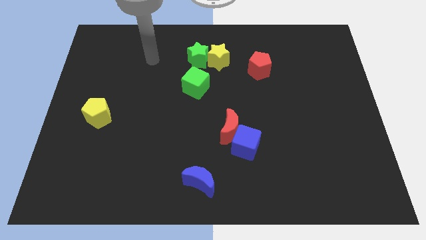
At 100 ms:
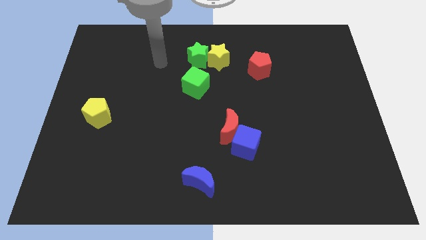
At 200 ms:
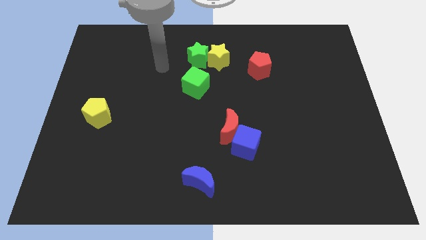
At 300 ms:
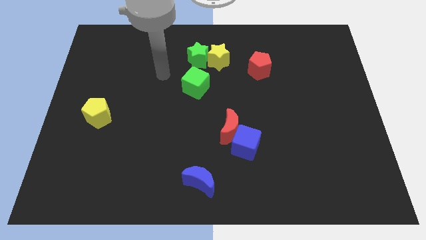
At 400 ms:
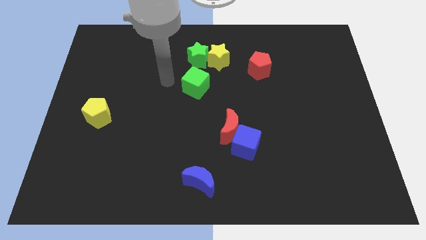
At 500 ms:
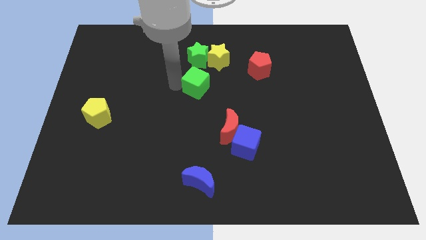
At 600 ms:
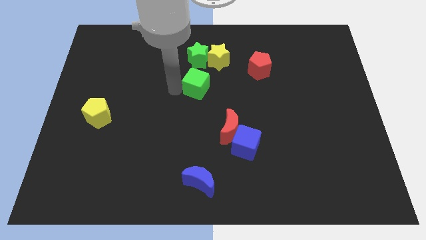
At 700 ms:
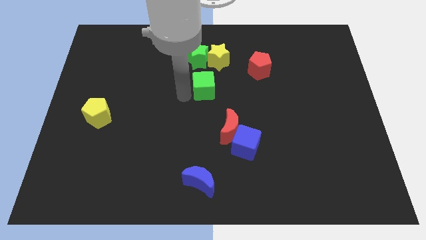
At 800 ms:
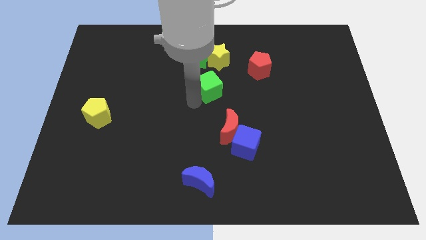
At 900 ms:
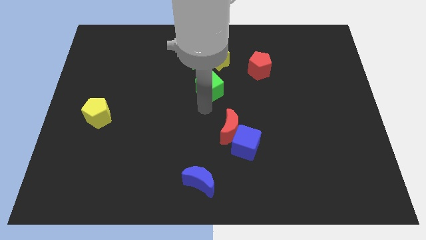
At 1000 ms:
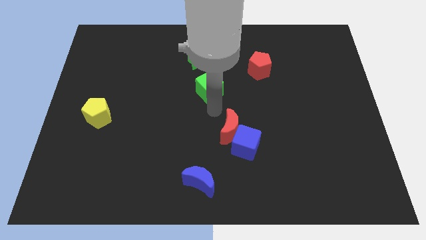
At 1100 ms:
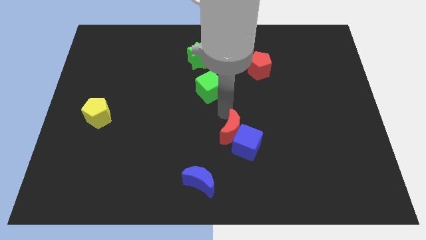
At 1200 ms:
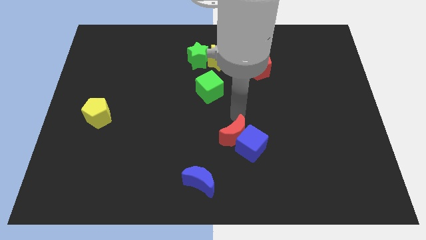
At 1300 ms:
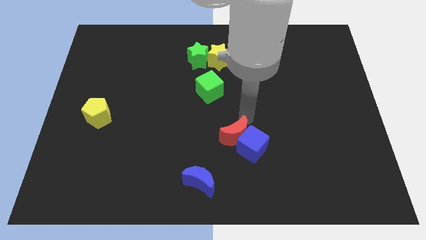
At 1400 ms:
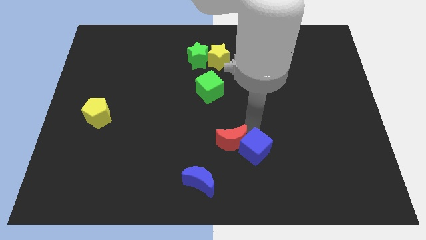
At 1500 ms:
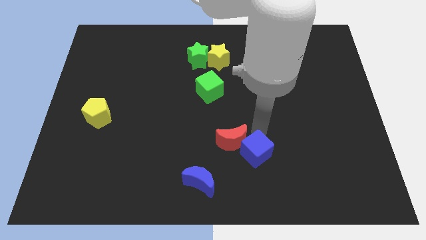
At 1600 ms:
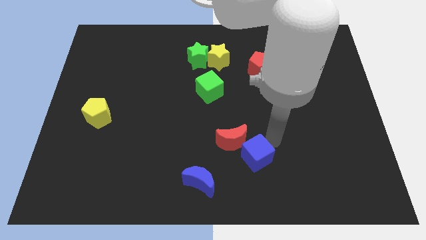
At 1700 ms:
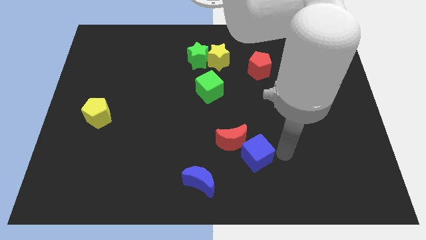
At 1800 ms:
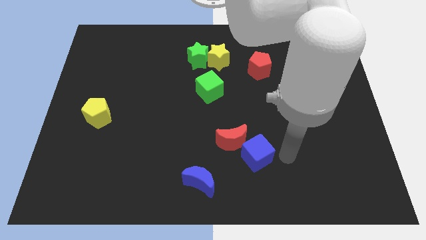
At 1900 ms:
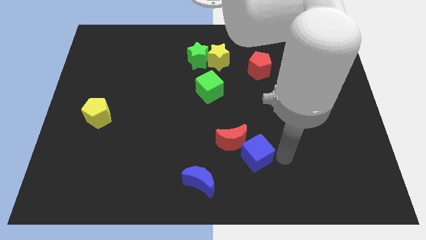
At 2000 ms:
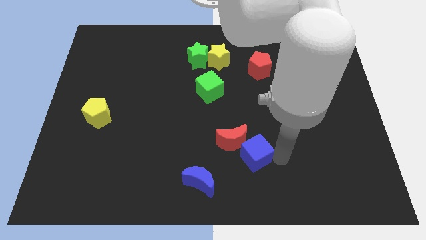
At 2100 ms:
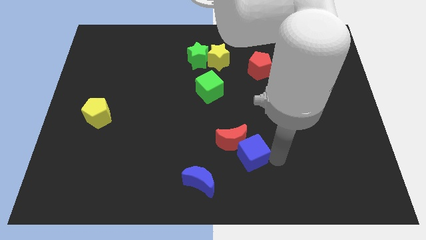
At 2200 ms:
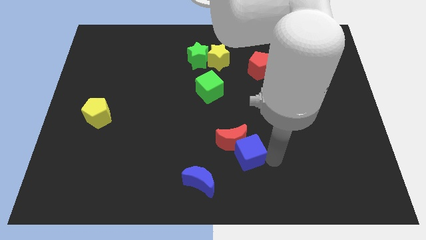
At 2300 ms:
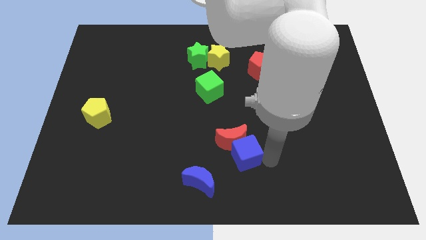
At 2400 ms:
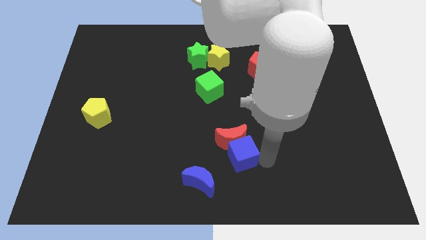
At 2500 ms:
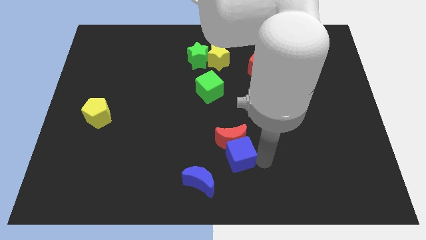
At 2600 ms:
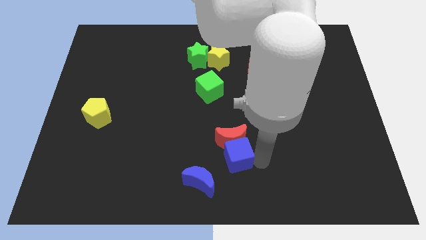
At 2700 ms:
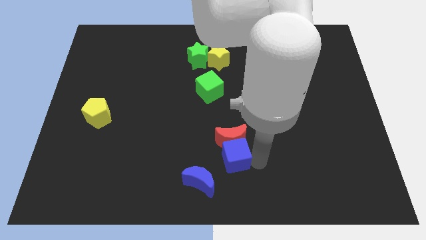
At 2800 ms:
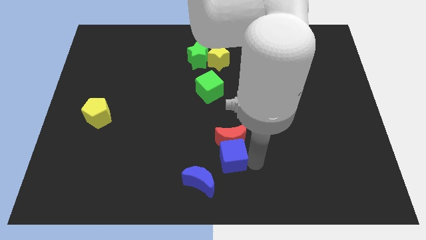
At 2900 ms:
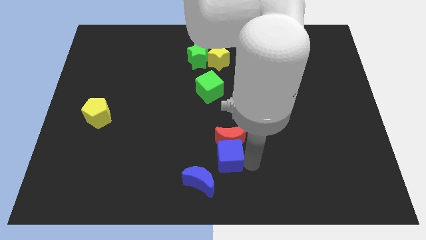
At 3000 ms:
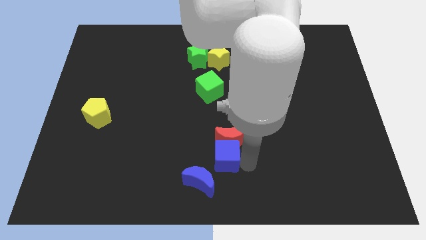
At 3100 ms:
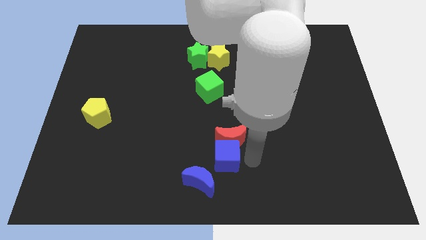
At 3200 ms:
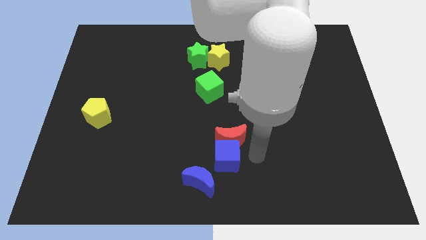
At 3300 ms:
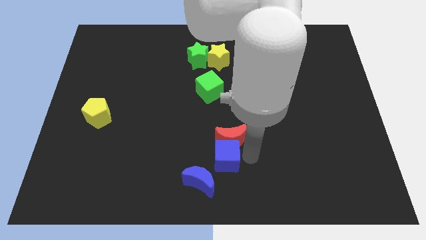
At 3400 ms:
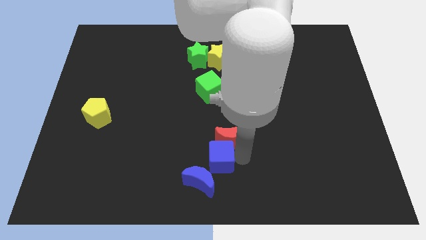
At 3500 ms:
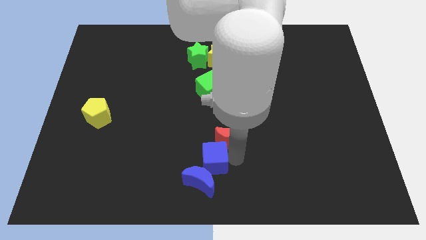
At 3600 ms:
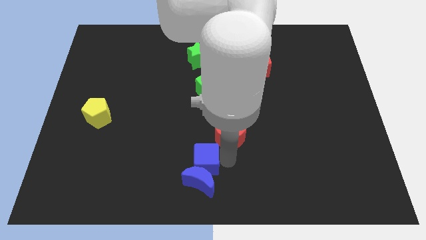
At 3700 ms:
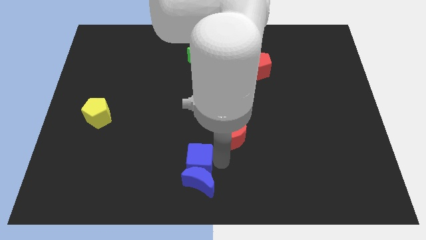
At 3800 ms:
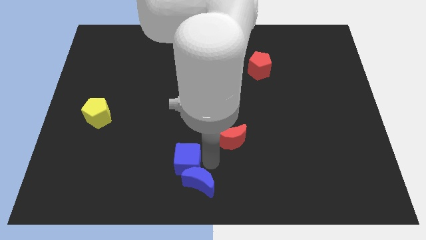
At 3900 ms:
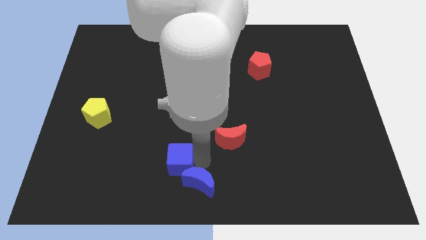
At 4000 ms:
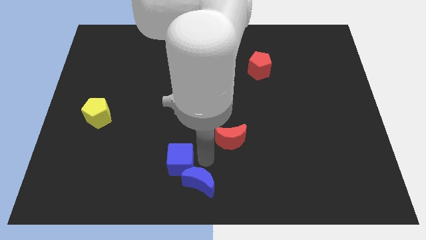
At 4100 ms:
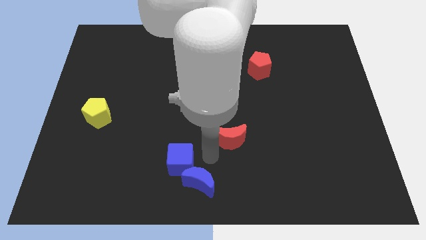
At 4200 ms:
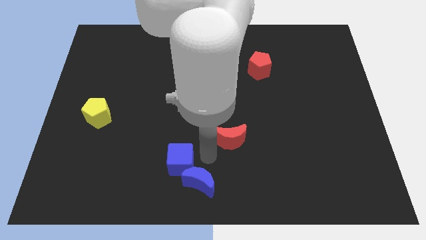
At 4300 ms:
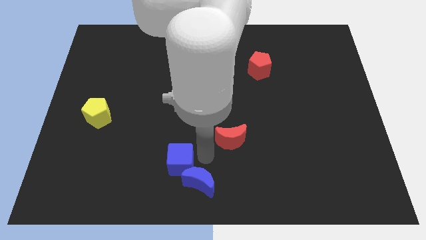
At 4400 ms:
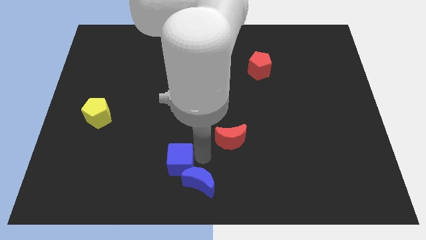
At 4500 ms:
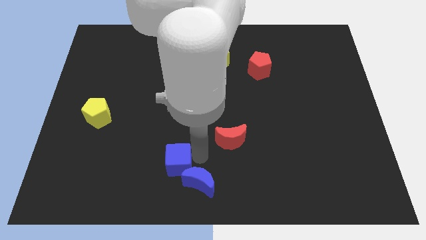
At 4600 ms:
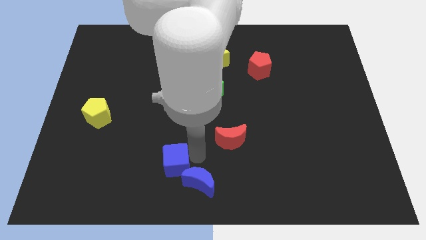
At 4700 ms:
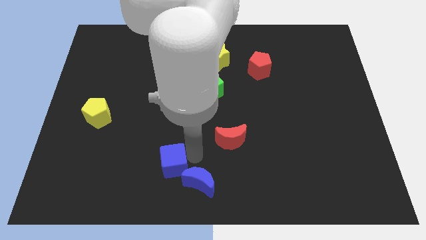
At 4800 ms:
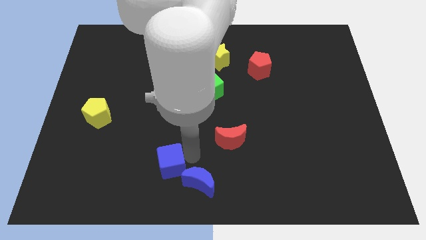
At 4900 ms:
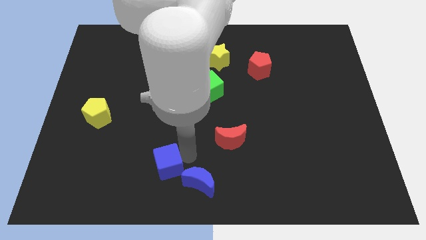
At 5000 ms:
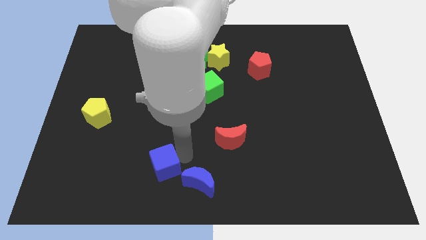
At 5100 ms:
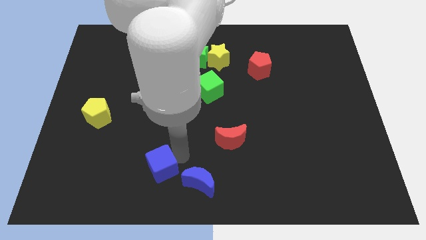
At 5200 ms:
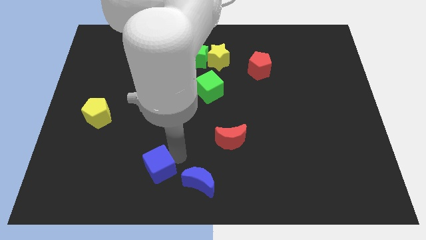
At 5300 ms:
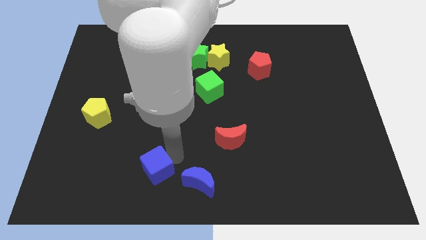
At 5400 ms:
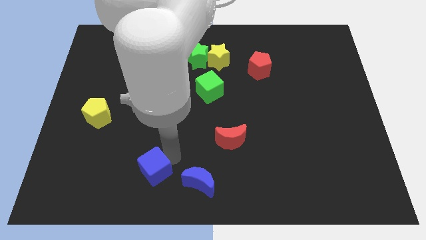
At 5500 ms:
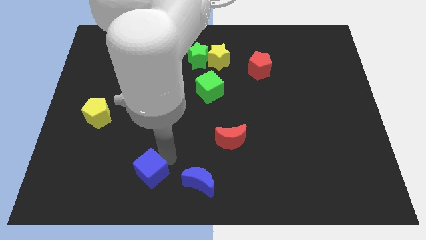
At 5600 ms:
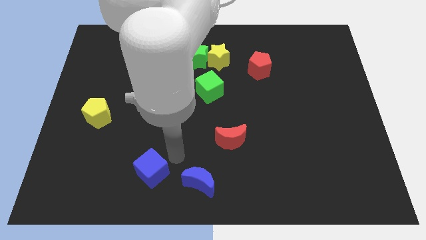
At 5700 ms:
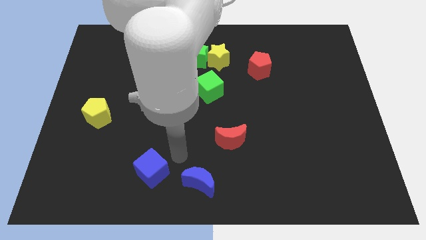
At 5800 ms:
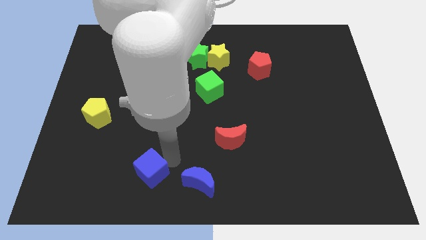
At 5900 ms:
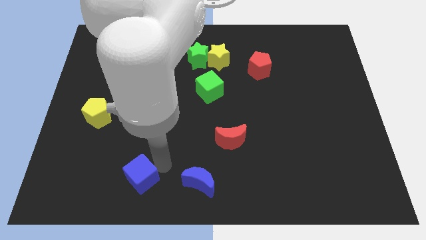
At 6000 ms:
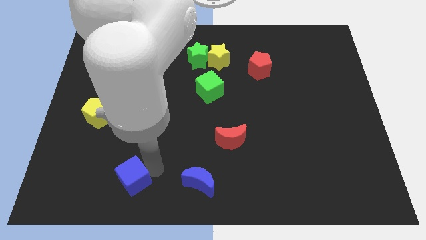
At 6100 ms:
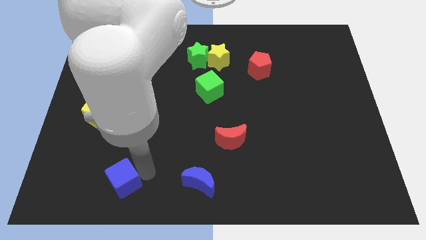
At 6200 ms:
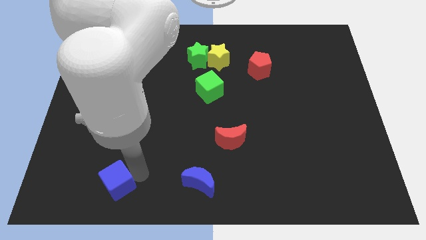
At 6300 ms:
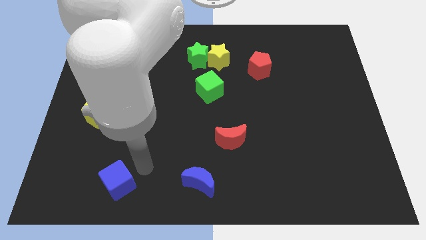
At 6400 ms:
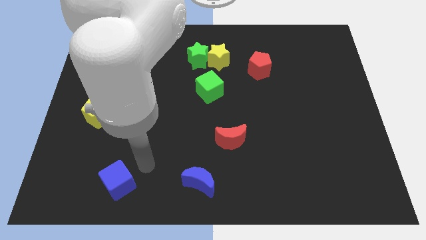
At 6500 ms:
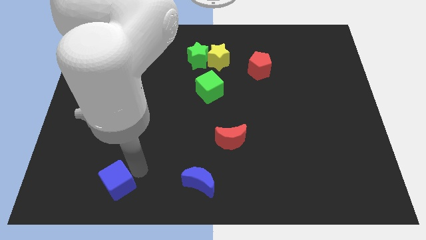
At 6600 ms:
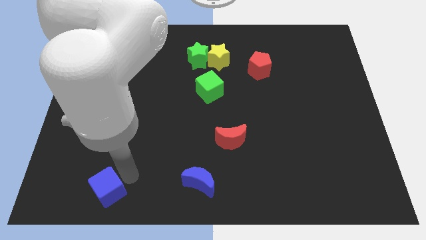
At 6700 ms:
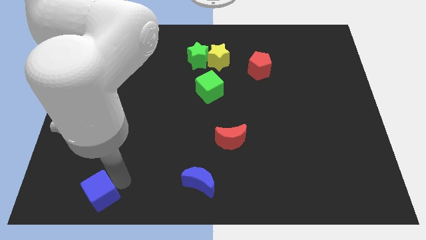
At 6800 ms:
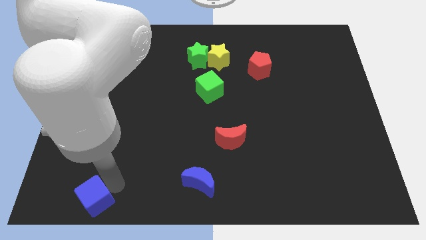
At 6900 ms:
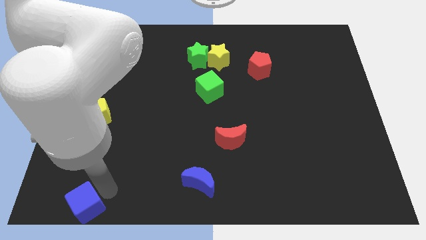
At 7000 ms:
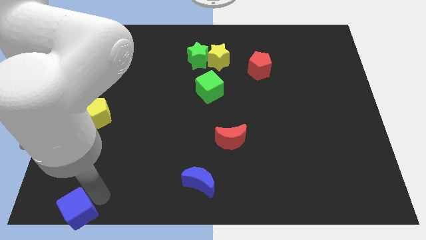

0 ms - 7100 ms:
move the blue cube to the bottom left of the board

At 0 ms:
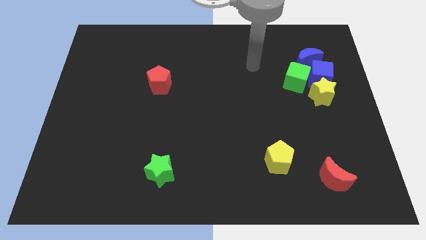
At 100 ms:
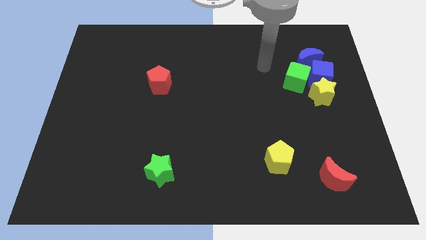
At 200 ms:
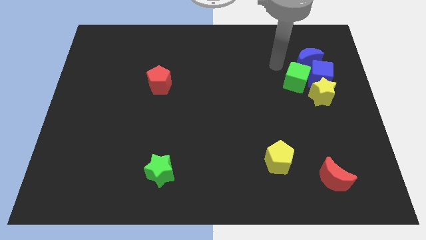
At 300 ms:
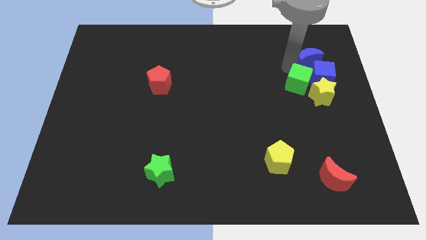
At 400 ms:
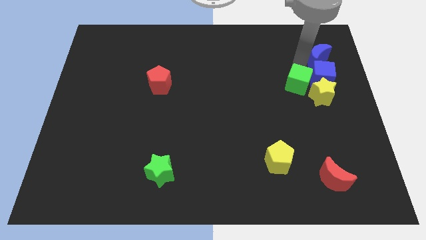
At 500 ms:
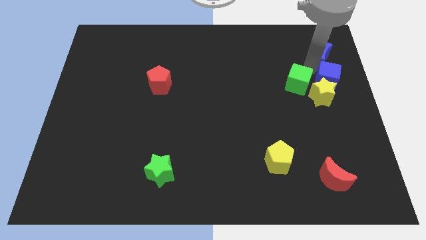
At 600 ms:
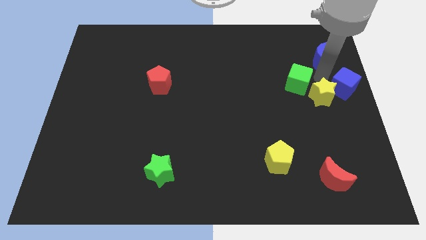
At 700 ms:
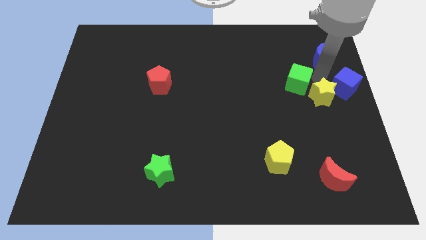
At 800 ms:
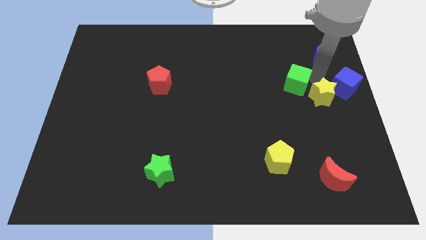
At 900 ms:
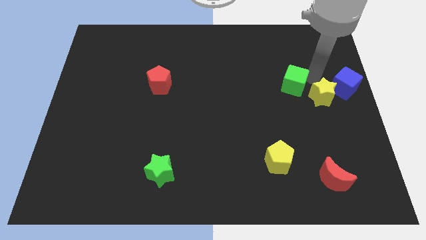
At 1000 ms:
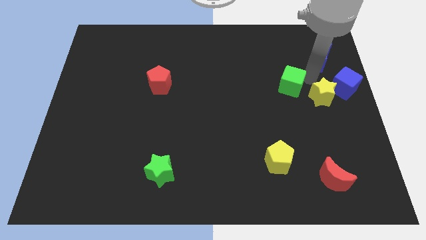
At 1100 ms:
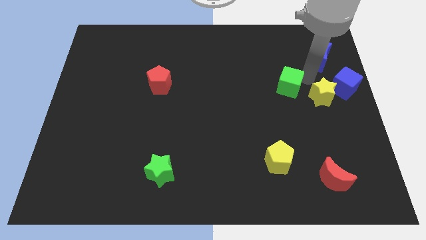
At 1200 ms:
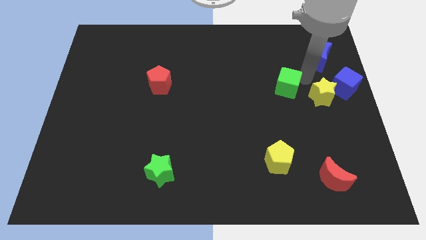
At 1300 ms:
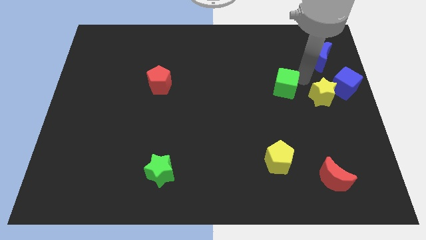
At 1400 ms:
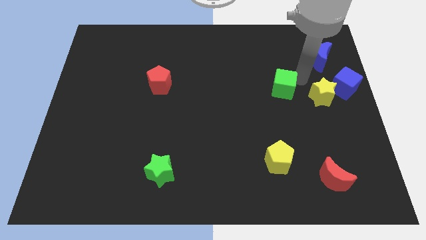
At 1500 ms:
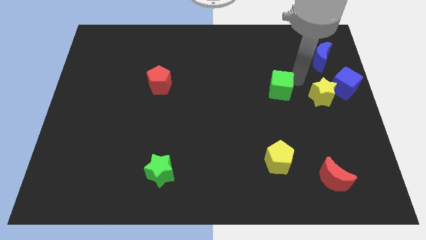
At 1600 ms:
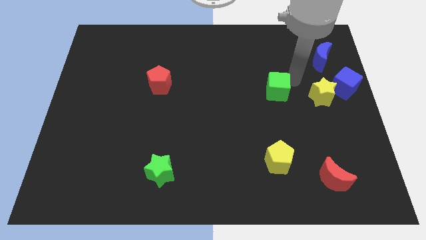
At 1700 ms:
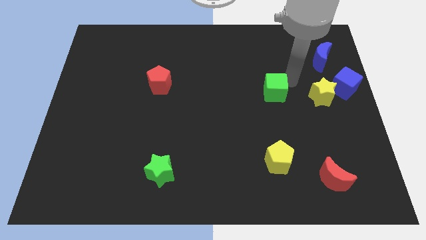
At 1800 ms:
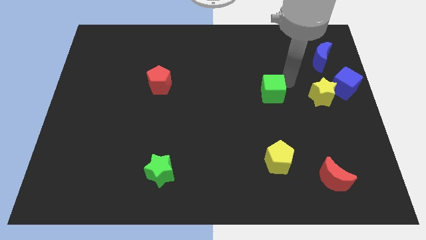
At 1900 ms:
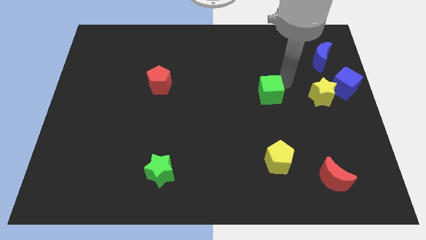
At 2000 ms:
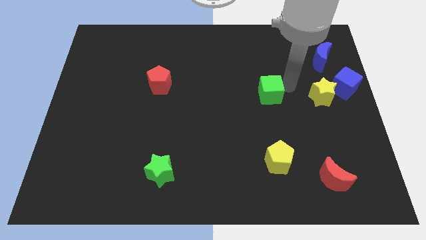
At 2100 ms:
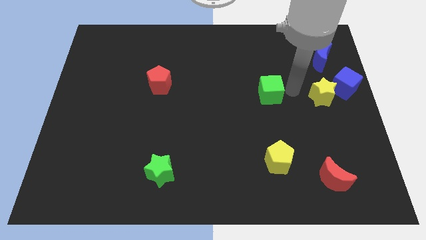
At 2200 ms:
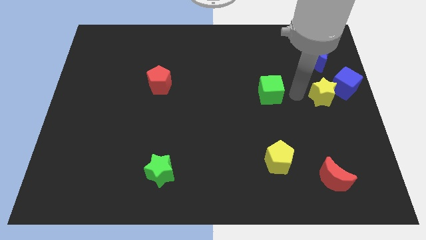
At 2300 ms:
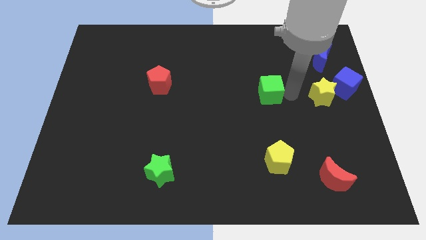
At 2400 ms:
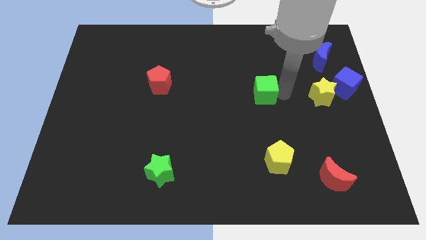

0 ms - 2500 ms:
slide the green cube to the middle
